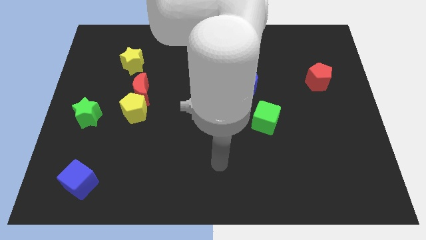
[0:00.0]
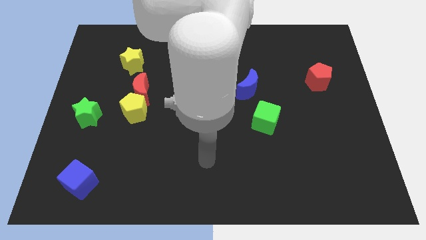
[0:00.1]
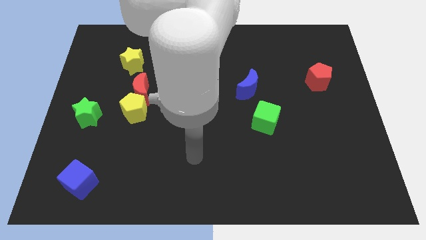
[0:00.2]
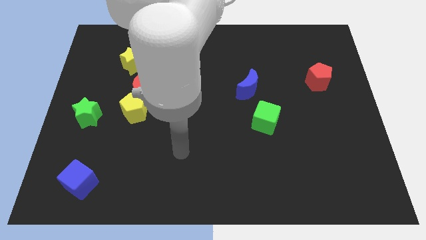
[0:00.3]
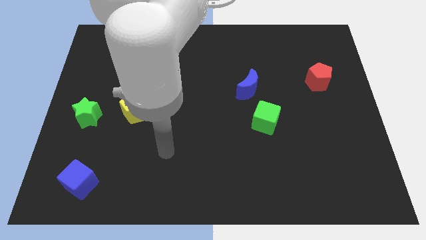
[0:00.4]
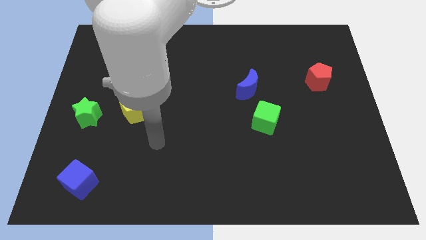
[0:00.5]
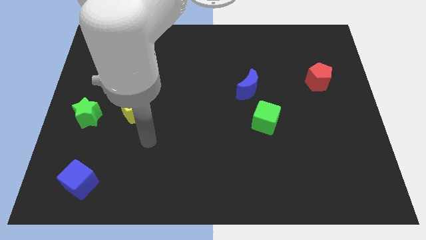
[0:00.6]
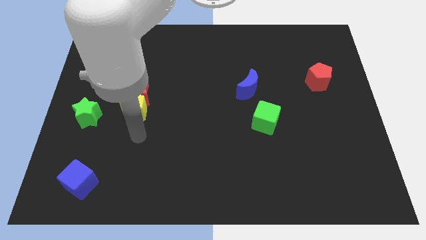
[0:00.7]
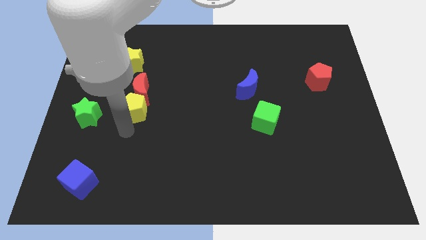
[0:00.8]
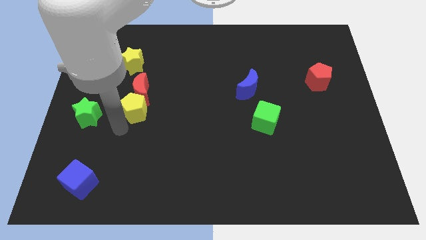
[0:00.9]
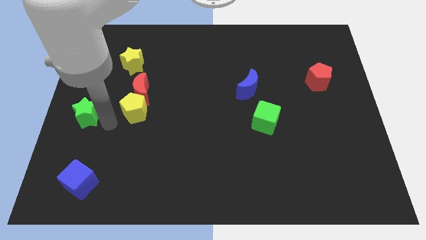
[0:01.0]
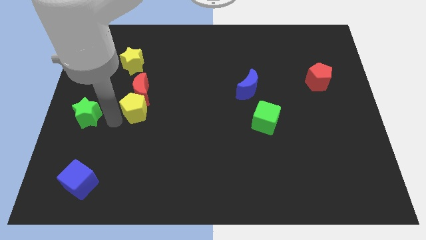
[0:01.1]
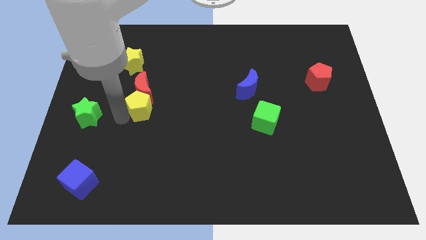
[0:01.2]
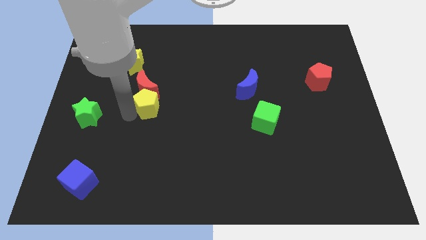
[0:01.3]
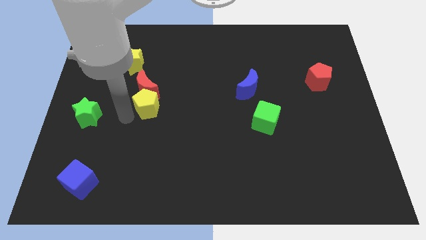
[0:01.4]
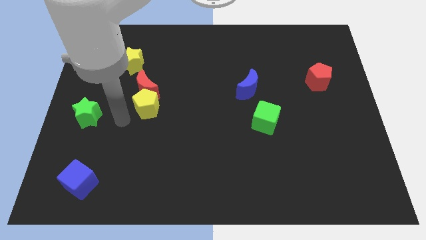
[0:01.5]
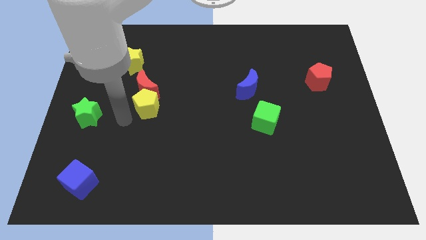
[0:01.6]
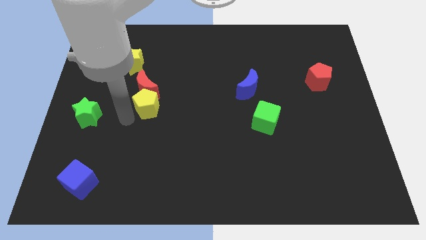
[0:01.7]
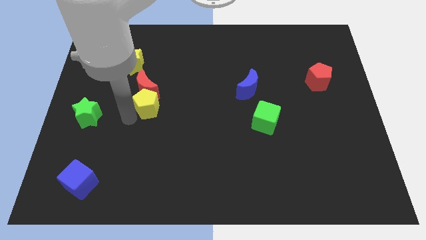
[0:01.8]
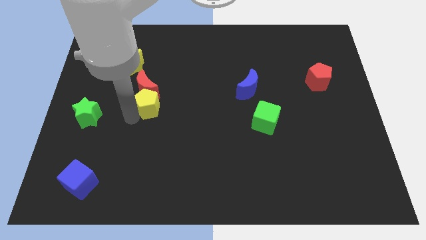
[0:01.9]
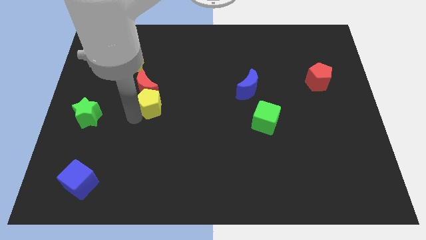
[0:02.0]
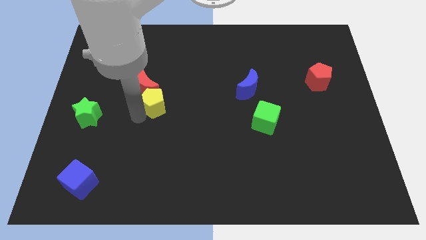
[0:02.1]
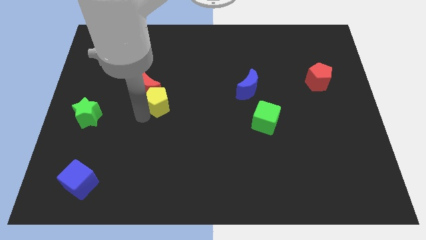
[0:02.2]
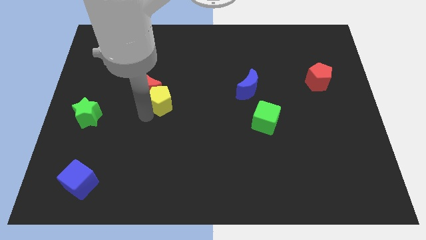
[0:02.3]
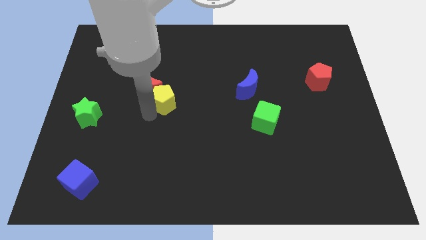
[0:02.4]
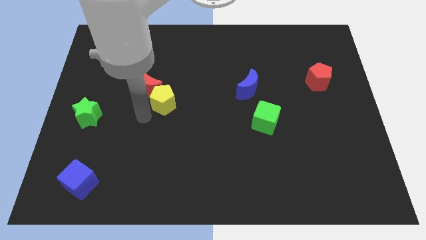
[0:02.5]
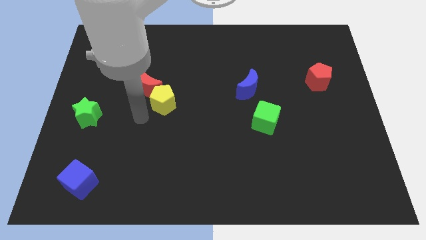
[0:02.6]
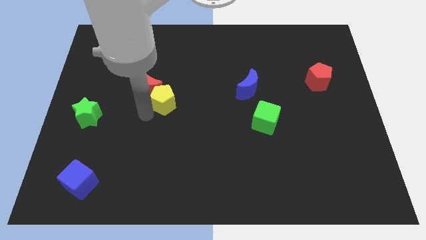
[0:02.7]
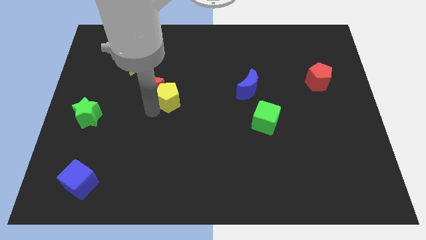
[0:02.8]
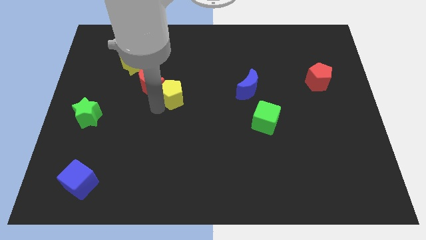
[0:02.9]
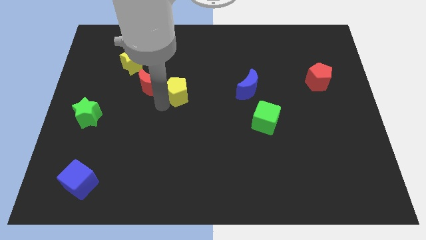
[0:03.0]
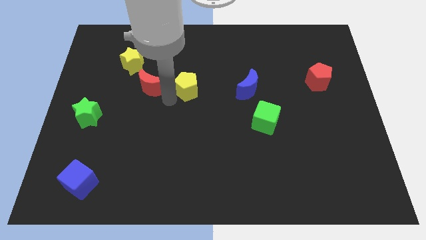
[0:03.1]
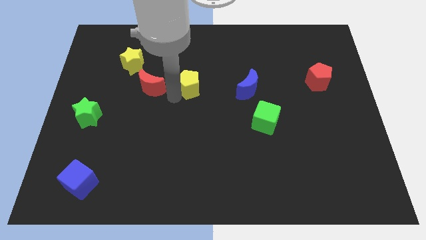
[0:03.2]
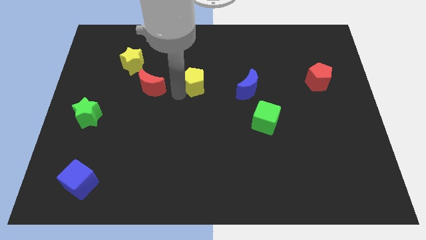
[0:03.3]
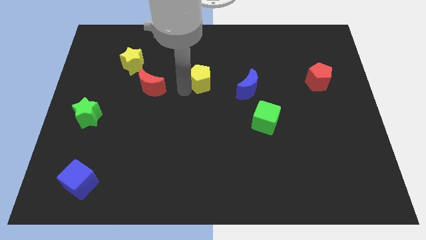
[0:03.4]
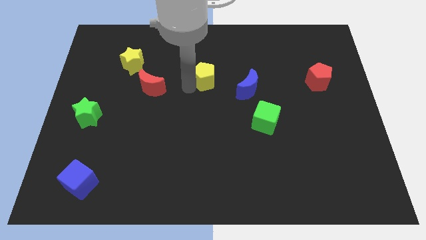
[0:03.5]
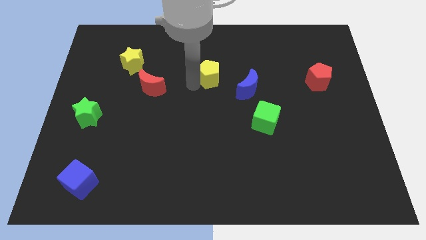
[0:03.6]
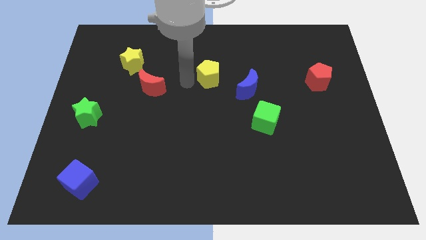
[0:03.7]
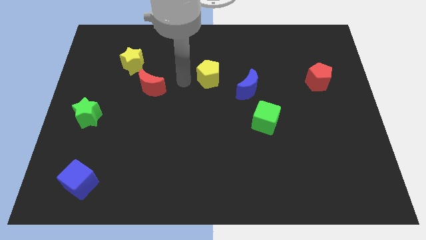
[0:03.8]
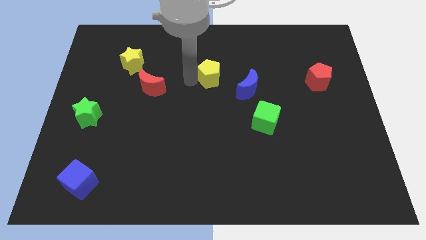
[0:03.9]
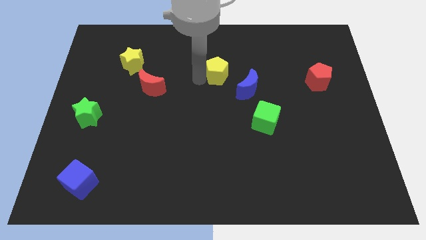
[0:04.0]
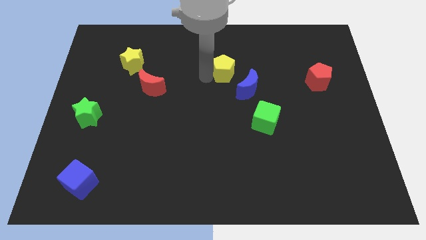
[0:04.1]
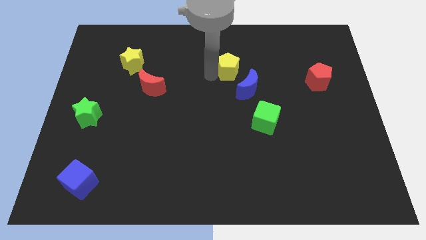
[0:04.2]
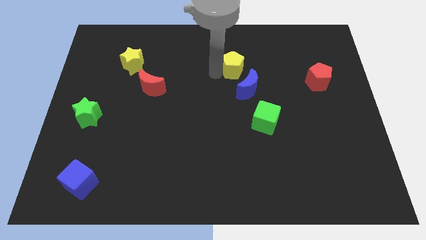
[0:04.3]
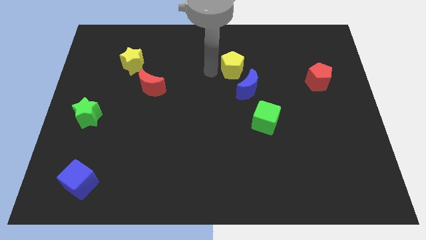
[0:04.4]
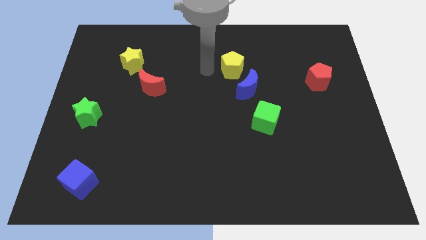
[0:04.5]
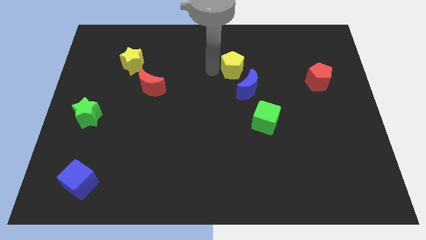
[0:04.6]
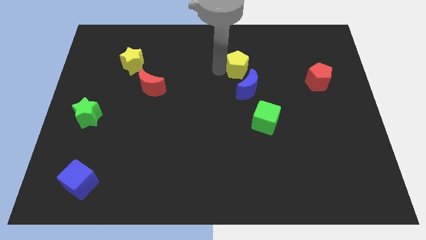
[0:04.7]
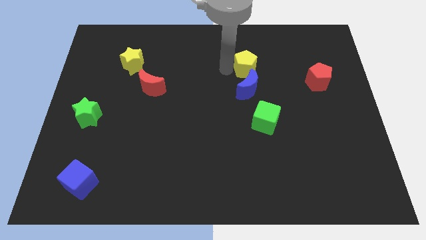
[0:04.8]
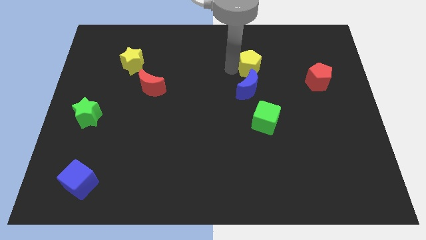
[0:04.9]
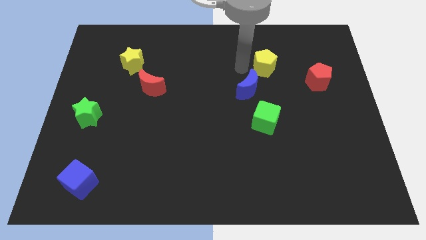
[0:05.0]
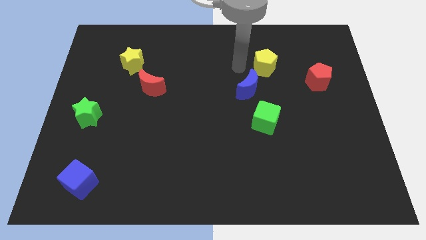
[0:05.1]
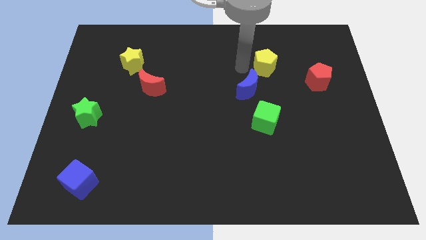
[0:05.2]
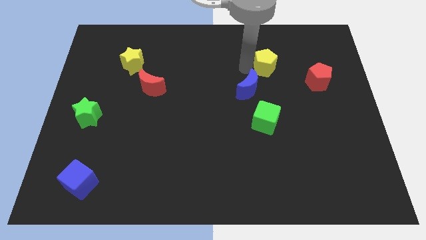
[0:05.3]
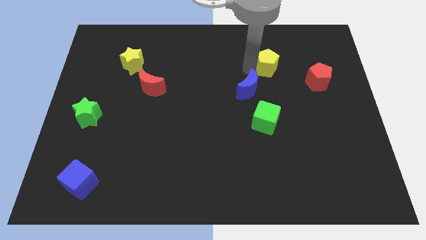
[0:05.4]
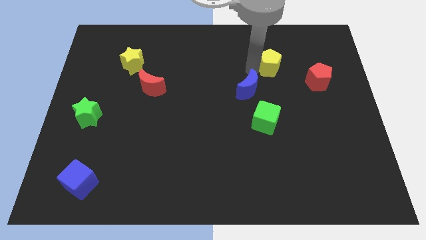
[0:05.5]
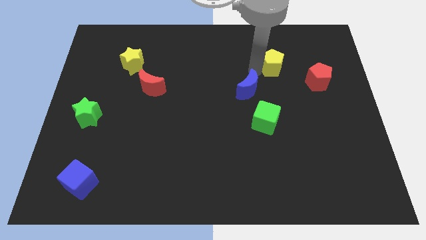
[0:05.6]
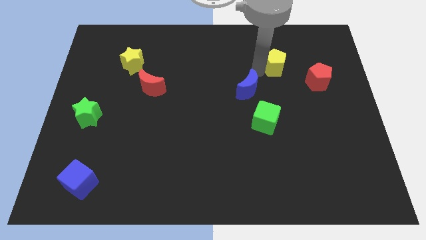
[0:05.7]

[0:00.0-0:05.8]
slide the yellow pentagon to the top left side of the red pentagon

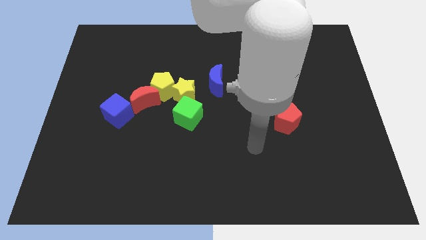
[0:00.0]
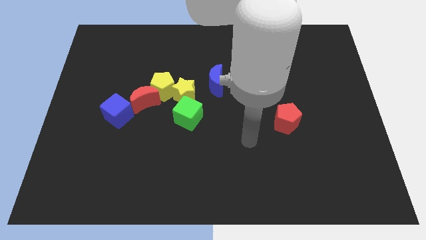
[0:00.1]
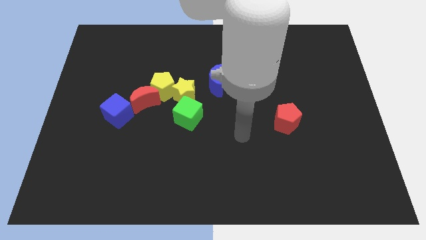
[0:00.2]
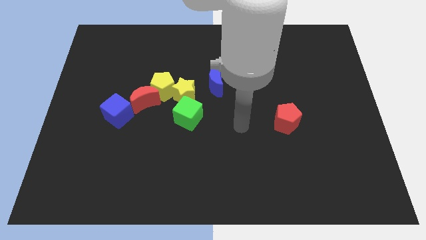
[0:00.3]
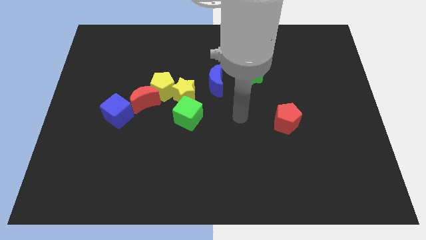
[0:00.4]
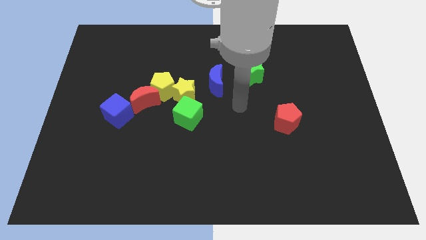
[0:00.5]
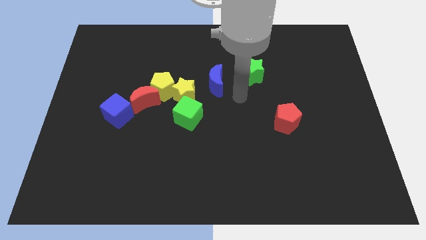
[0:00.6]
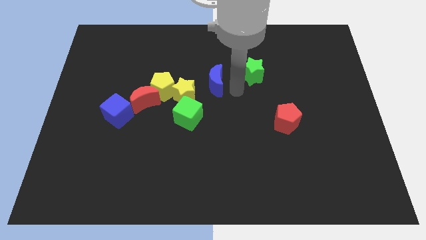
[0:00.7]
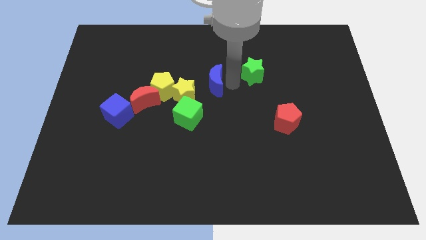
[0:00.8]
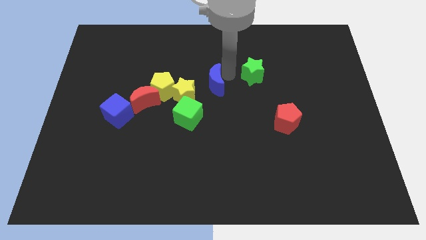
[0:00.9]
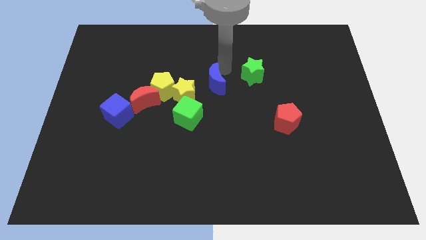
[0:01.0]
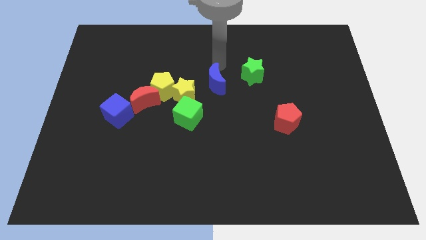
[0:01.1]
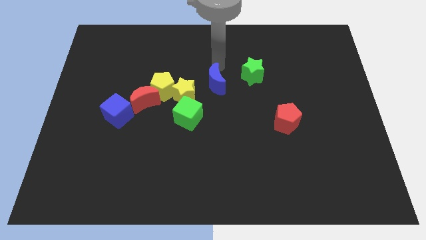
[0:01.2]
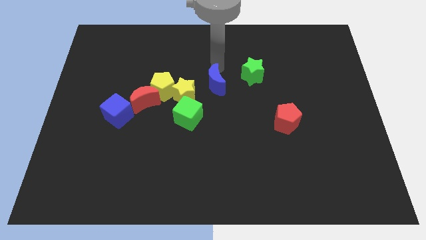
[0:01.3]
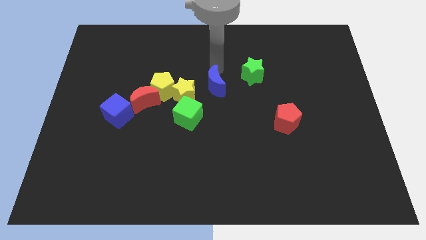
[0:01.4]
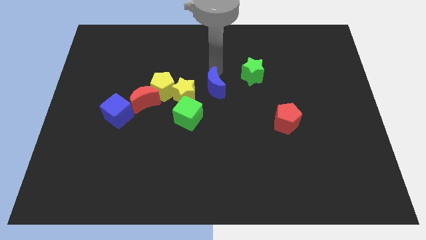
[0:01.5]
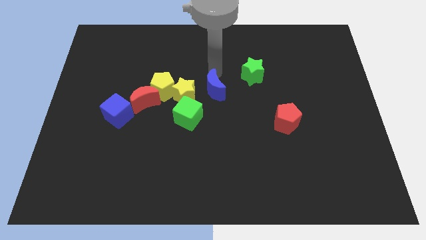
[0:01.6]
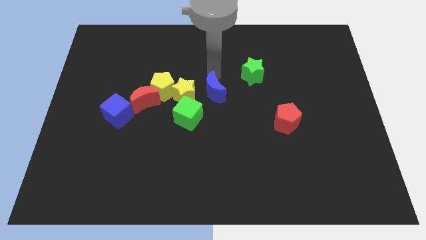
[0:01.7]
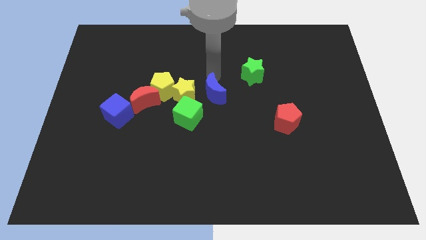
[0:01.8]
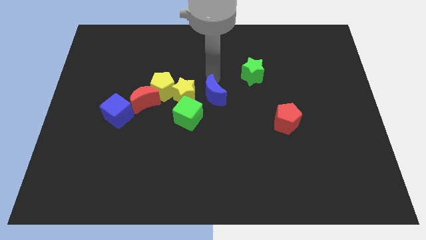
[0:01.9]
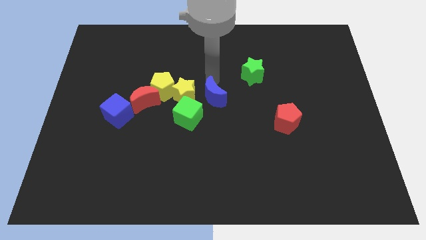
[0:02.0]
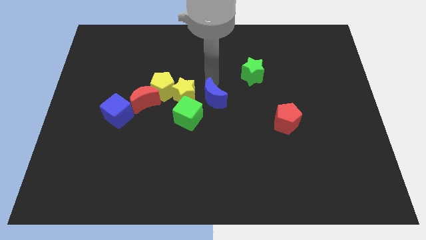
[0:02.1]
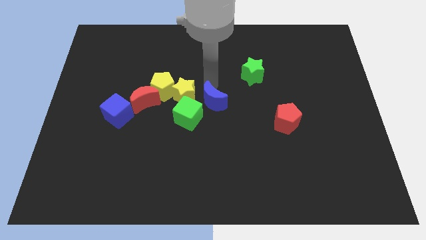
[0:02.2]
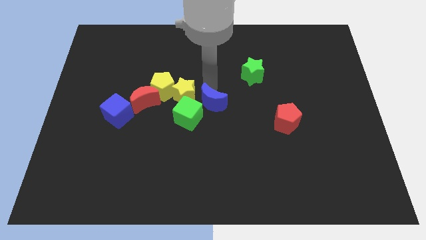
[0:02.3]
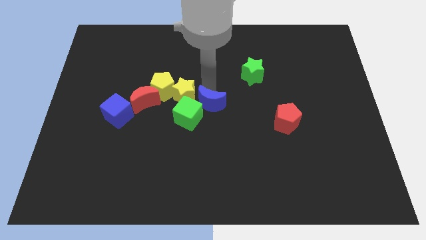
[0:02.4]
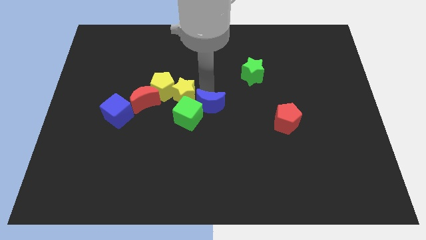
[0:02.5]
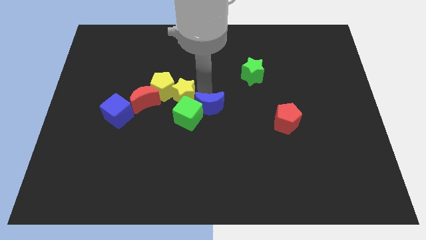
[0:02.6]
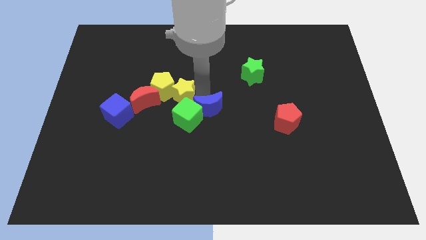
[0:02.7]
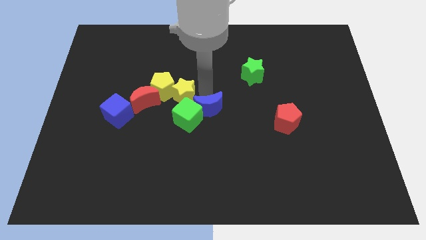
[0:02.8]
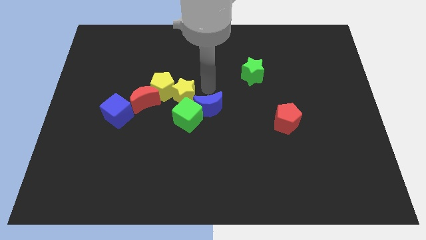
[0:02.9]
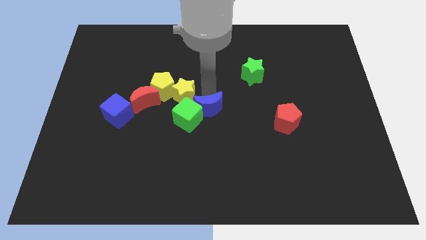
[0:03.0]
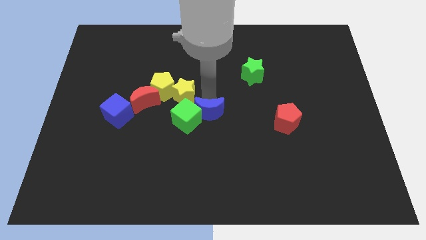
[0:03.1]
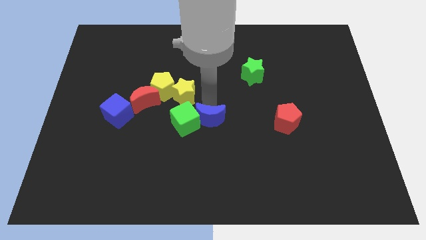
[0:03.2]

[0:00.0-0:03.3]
push the blue moon to the bottom right side of the green cube
